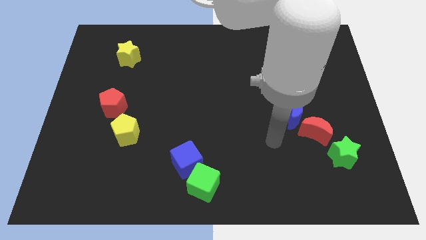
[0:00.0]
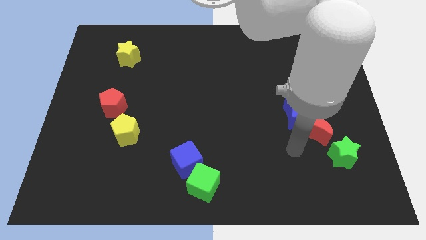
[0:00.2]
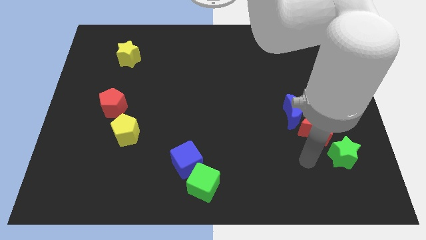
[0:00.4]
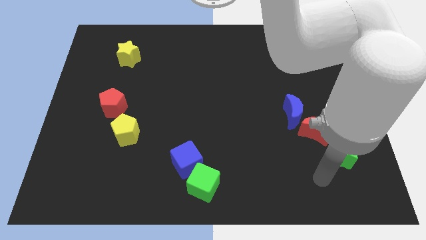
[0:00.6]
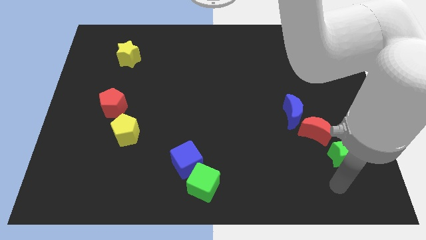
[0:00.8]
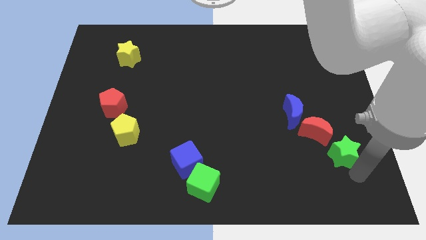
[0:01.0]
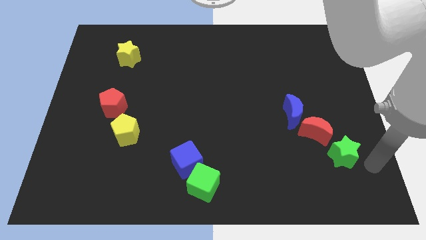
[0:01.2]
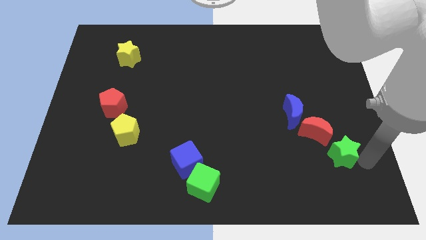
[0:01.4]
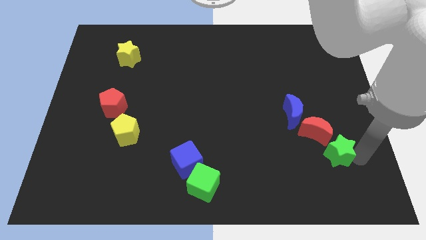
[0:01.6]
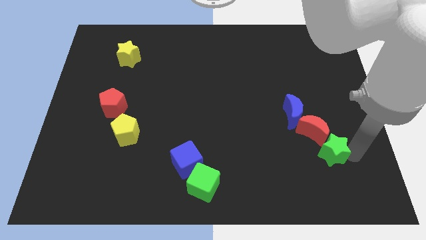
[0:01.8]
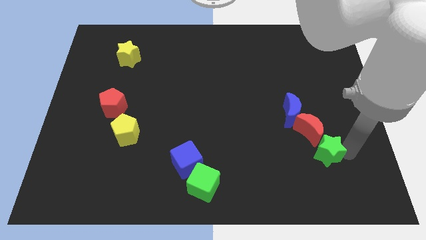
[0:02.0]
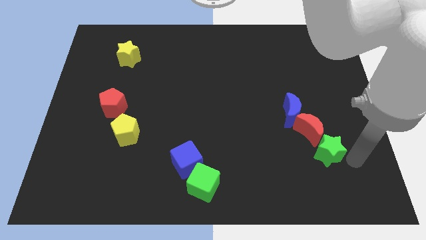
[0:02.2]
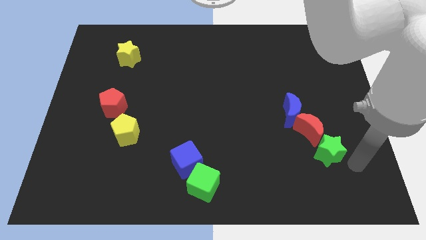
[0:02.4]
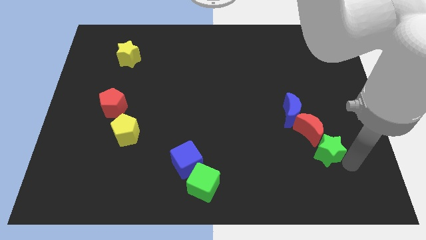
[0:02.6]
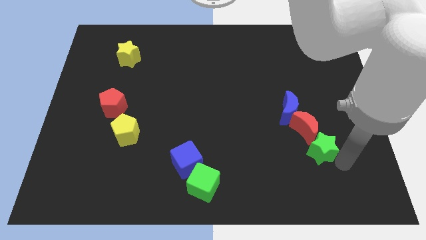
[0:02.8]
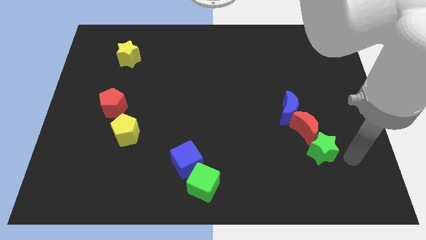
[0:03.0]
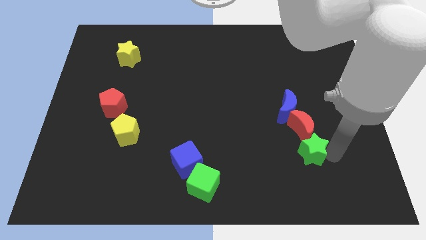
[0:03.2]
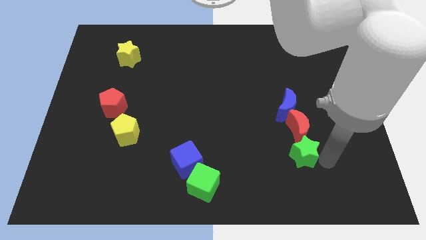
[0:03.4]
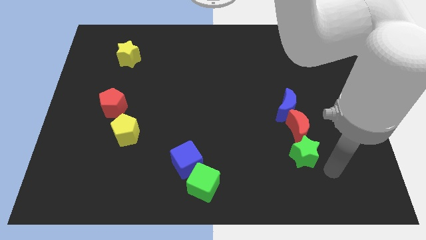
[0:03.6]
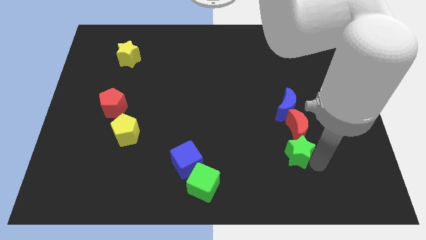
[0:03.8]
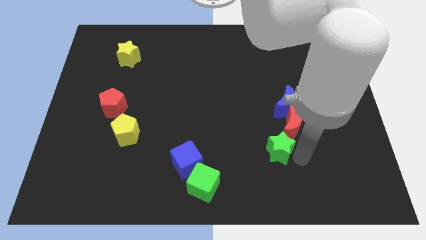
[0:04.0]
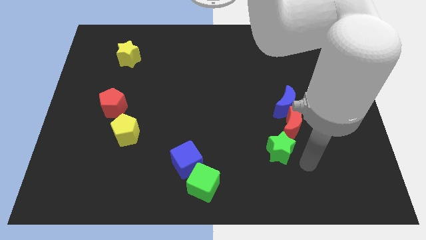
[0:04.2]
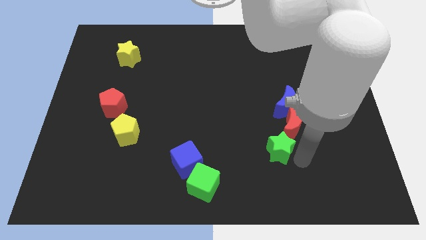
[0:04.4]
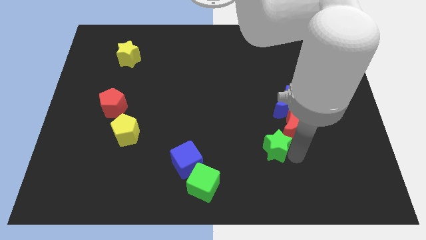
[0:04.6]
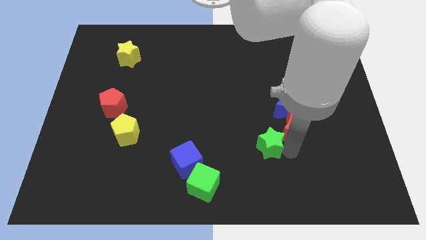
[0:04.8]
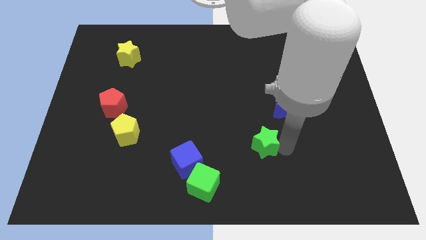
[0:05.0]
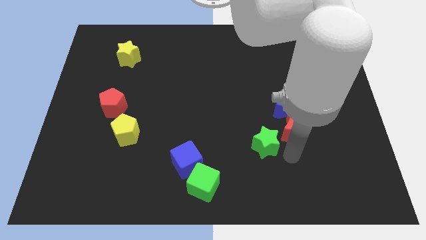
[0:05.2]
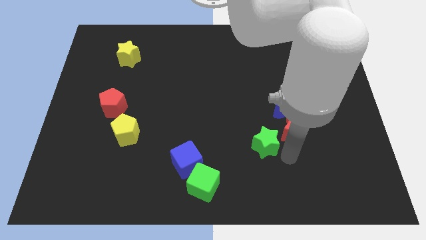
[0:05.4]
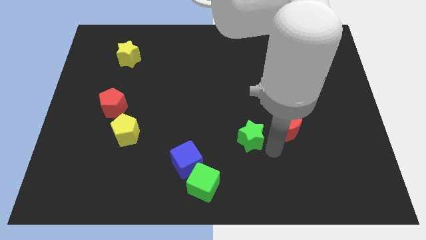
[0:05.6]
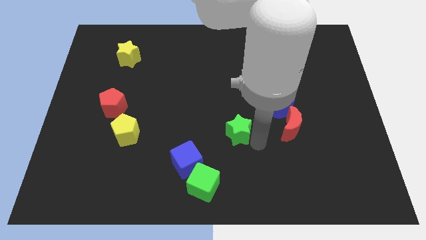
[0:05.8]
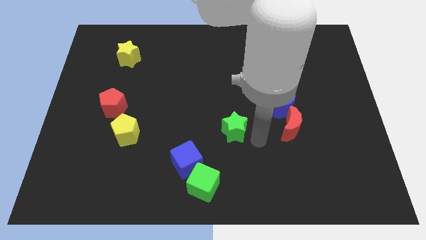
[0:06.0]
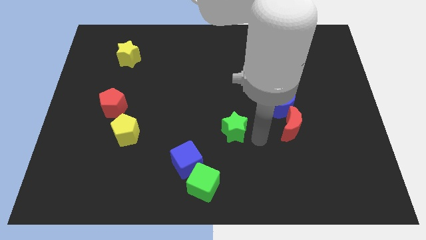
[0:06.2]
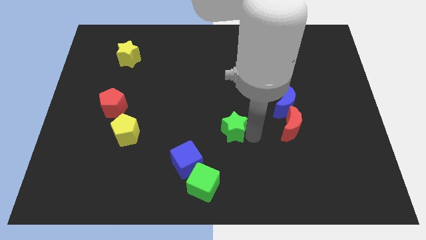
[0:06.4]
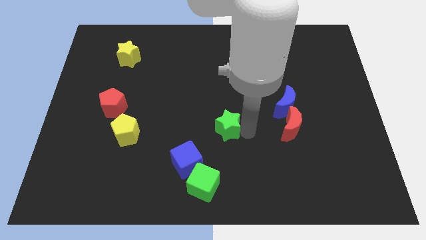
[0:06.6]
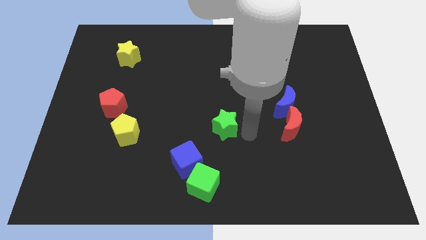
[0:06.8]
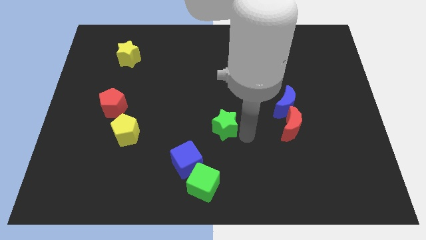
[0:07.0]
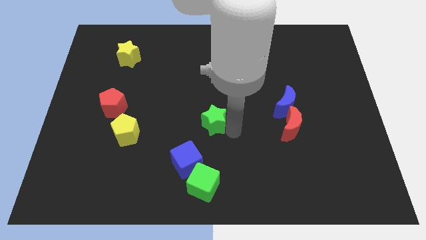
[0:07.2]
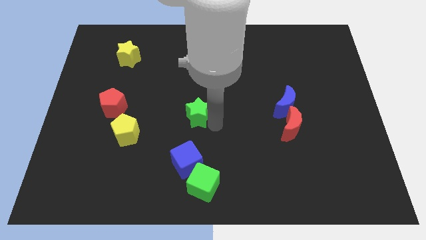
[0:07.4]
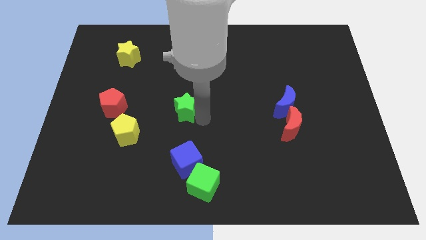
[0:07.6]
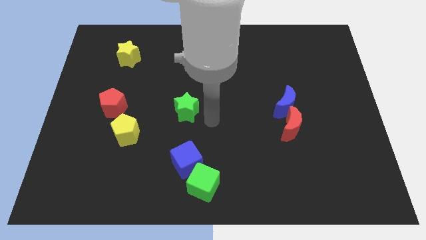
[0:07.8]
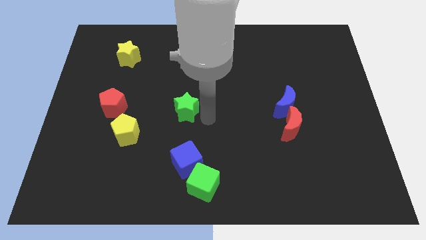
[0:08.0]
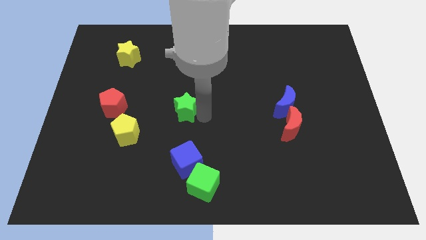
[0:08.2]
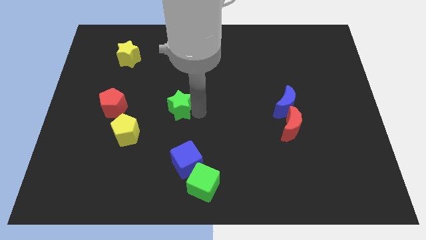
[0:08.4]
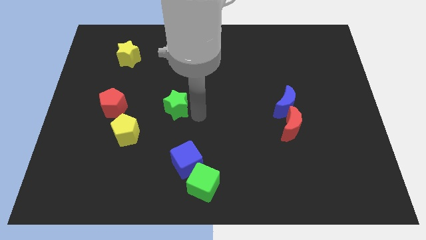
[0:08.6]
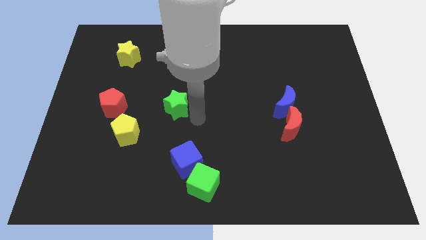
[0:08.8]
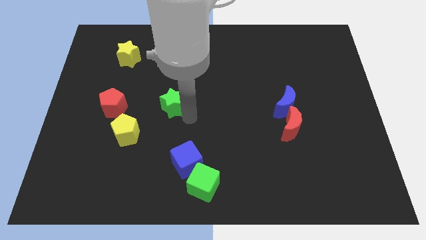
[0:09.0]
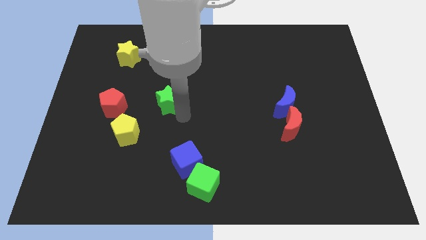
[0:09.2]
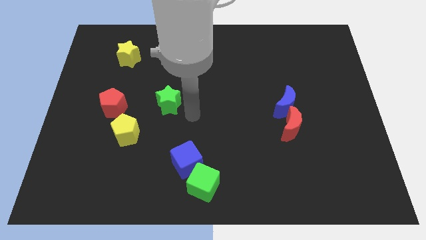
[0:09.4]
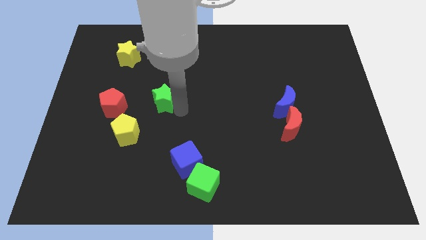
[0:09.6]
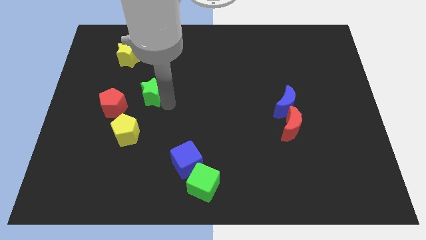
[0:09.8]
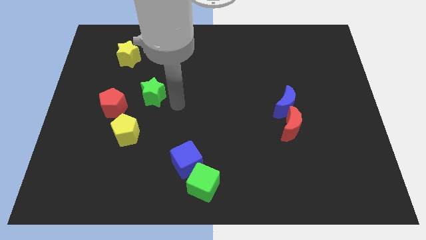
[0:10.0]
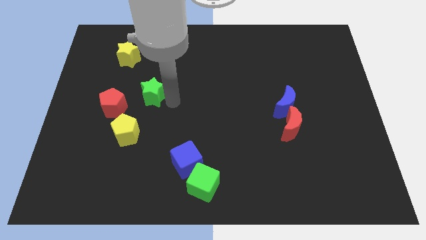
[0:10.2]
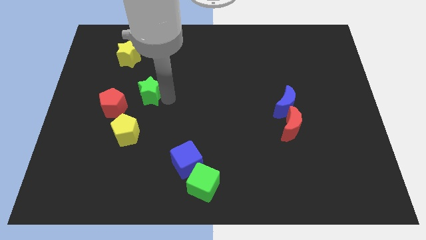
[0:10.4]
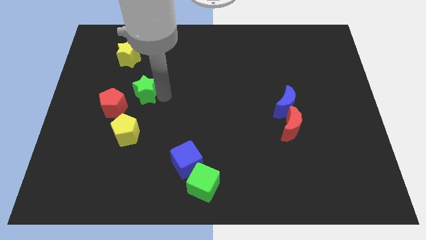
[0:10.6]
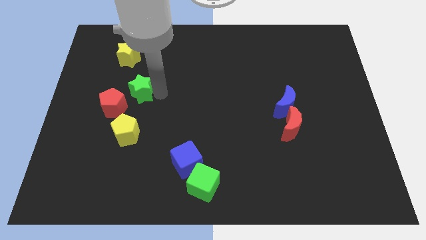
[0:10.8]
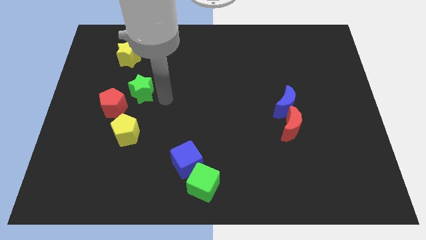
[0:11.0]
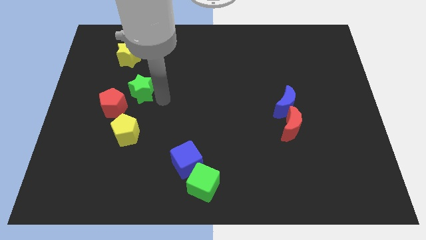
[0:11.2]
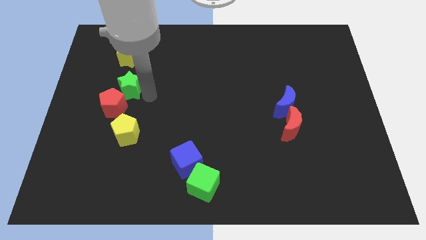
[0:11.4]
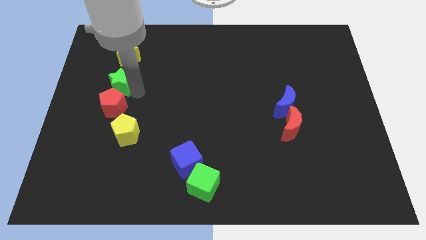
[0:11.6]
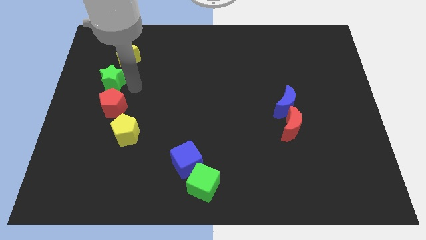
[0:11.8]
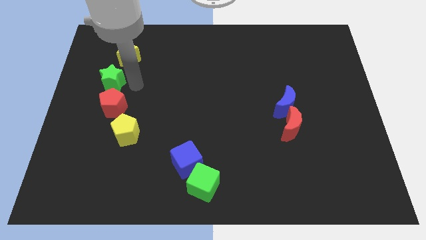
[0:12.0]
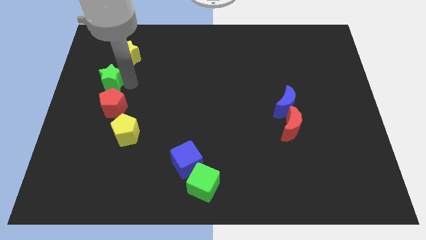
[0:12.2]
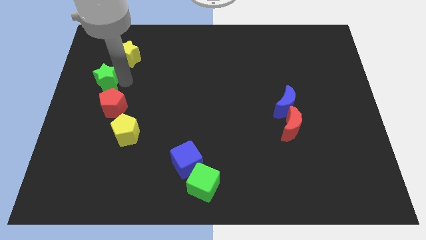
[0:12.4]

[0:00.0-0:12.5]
slide the green star to the left side of the board

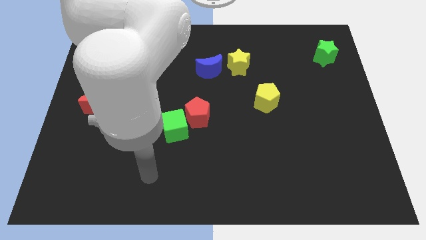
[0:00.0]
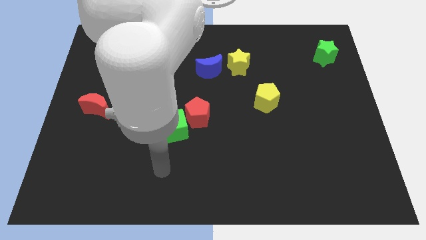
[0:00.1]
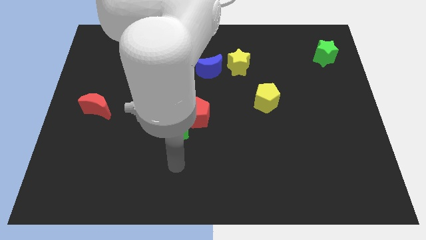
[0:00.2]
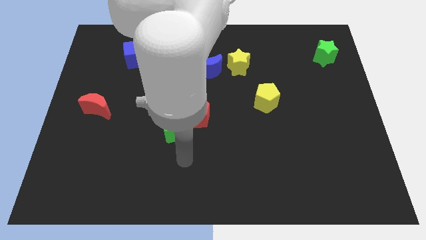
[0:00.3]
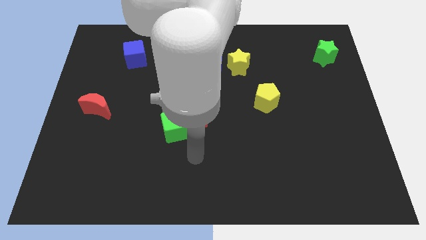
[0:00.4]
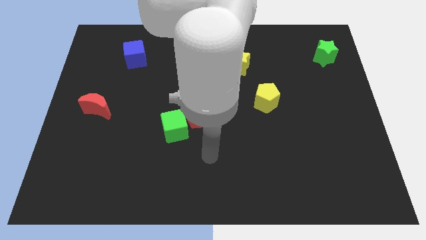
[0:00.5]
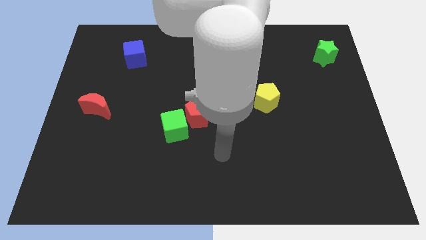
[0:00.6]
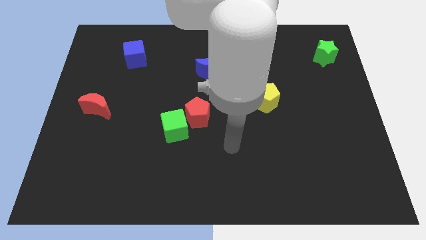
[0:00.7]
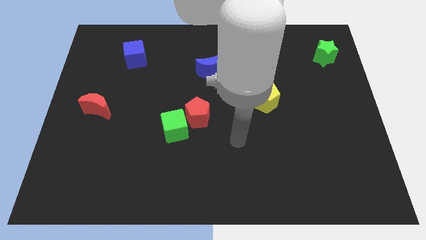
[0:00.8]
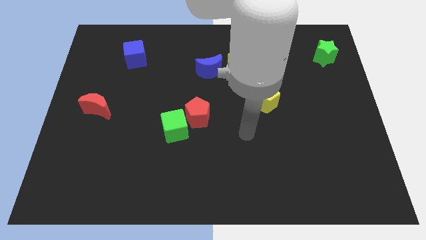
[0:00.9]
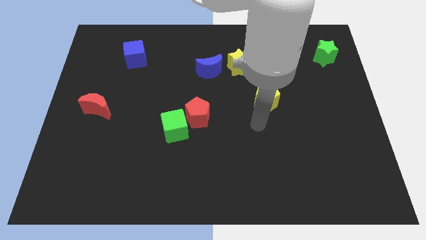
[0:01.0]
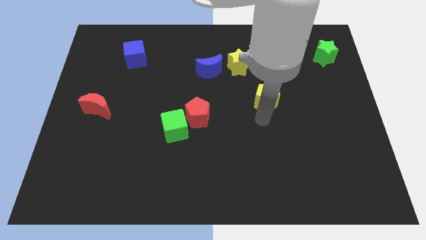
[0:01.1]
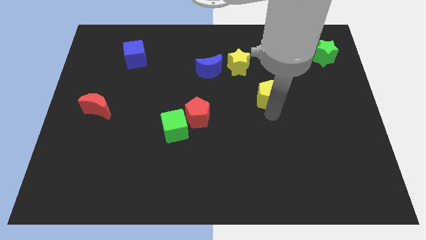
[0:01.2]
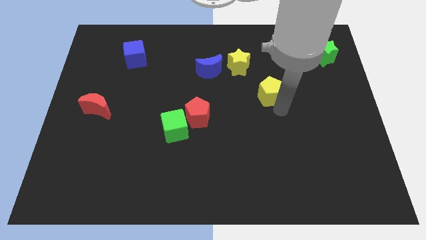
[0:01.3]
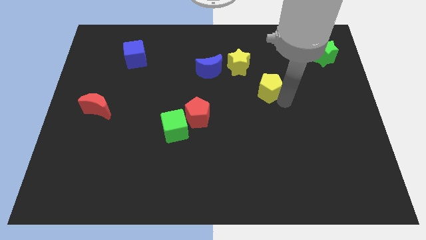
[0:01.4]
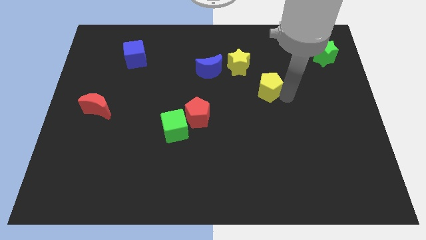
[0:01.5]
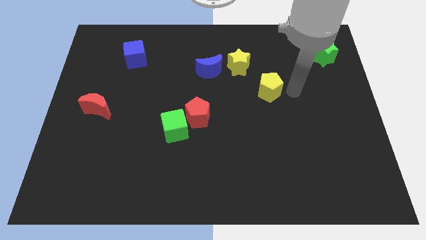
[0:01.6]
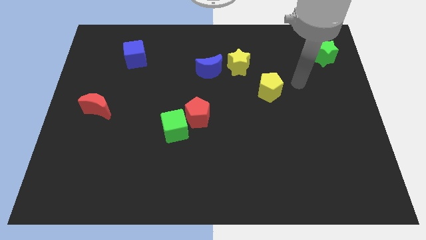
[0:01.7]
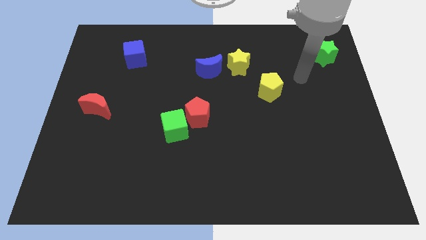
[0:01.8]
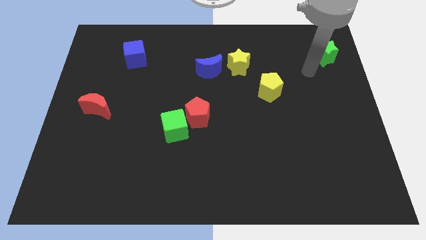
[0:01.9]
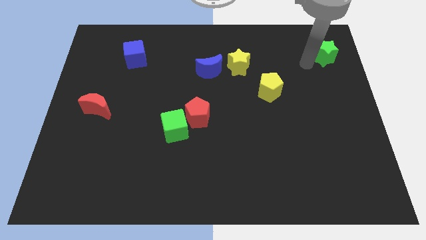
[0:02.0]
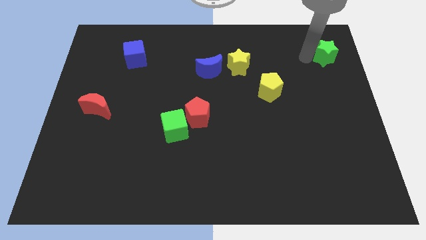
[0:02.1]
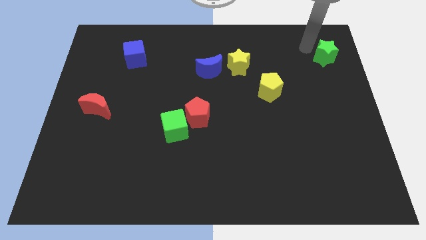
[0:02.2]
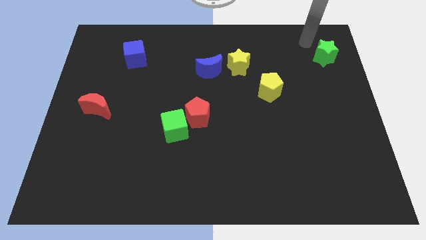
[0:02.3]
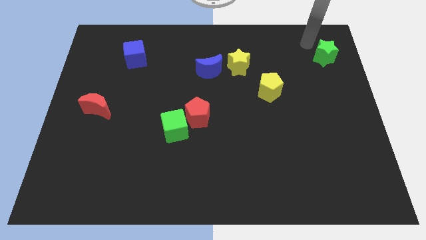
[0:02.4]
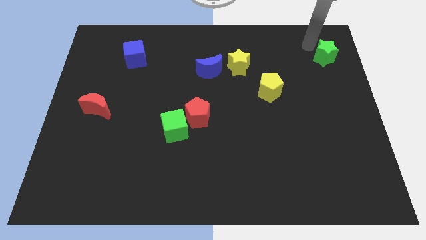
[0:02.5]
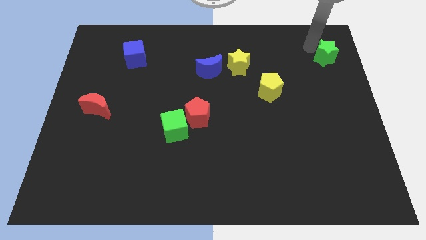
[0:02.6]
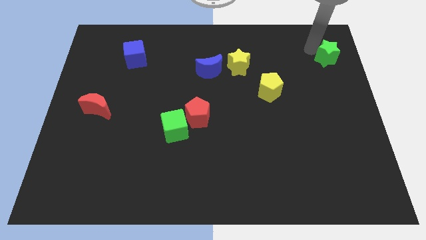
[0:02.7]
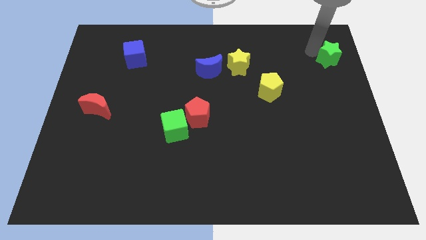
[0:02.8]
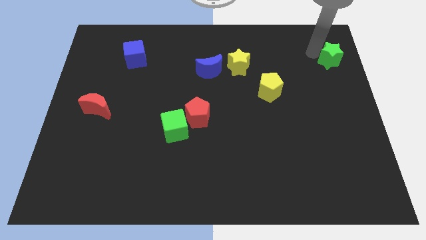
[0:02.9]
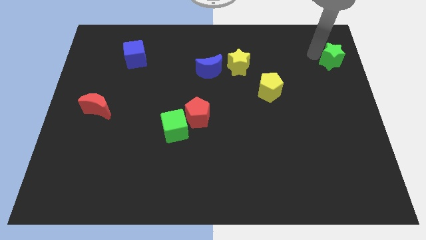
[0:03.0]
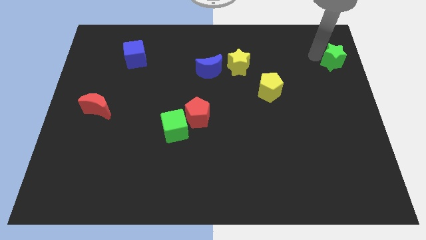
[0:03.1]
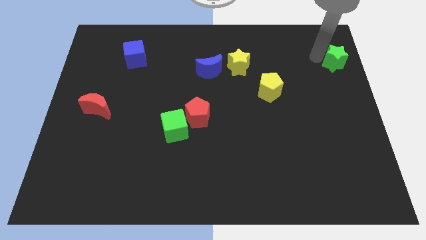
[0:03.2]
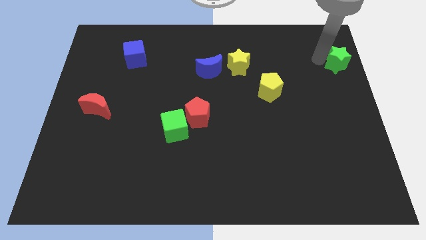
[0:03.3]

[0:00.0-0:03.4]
move the green star to the right side of the board
